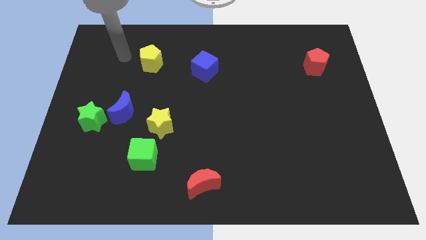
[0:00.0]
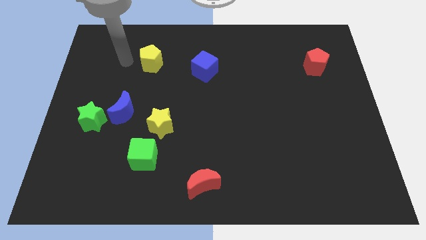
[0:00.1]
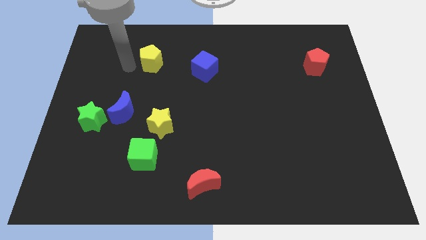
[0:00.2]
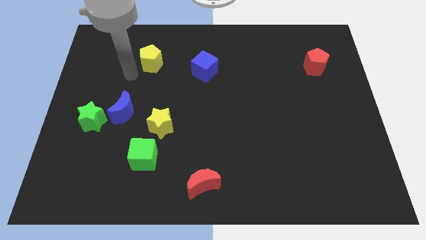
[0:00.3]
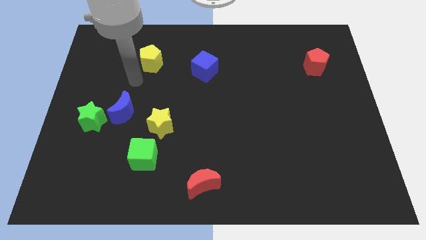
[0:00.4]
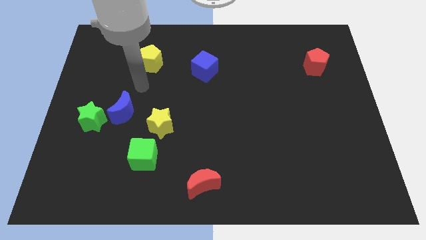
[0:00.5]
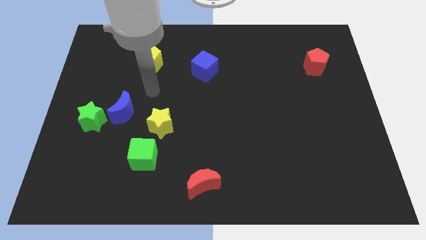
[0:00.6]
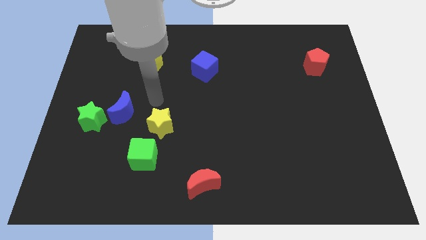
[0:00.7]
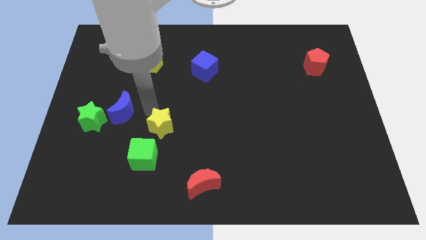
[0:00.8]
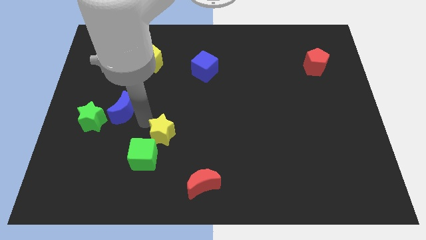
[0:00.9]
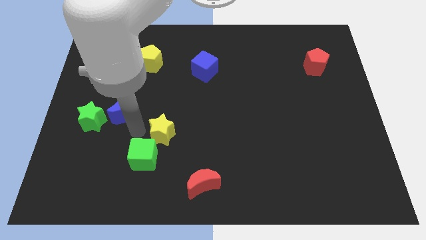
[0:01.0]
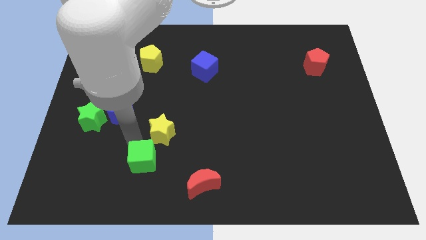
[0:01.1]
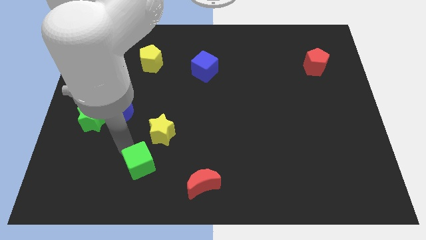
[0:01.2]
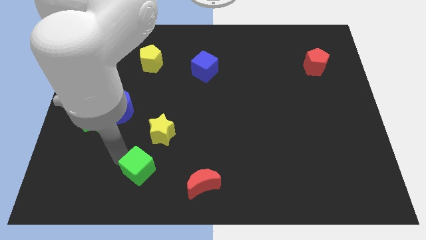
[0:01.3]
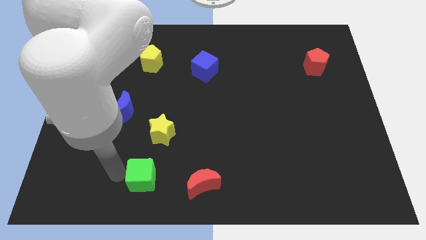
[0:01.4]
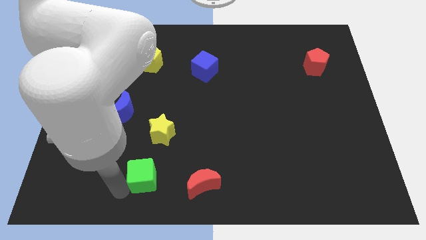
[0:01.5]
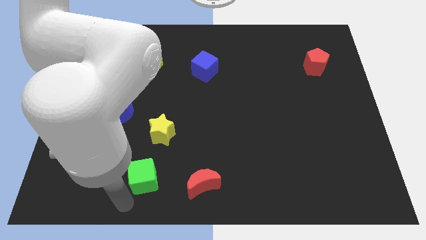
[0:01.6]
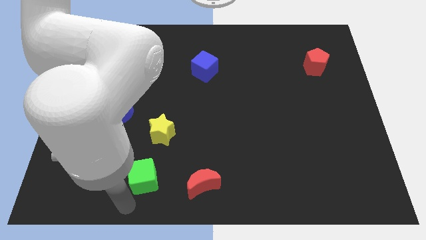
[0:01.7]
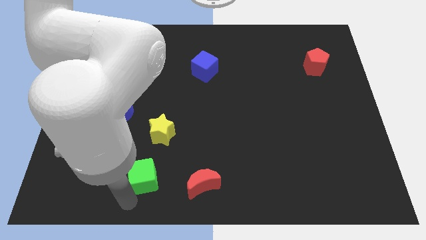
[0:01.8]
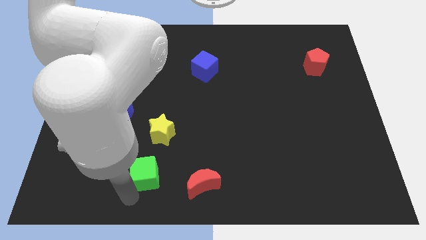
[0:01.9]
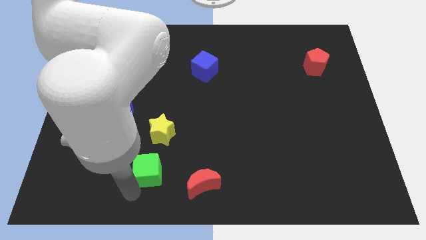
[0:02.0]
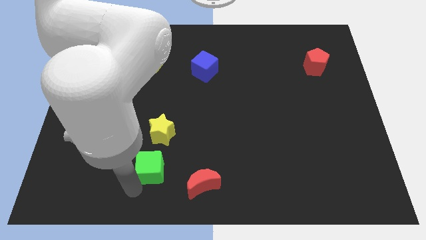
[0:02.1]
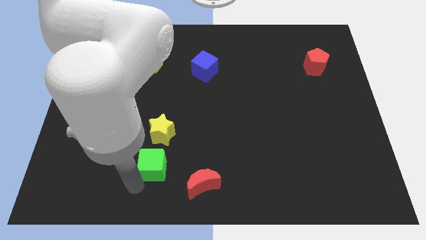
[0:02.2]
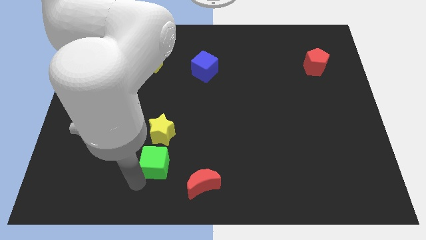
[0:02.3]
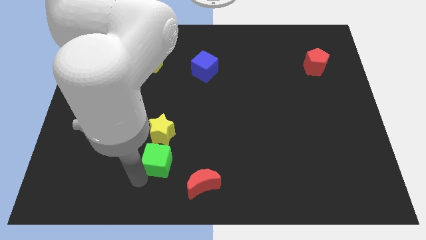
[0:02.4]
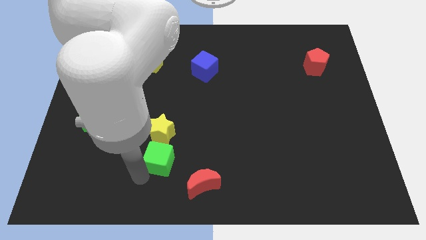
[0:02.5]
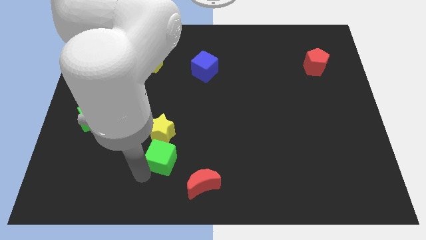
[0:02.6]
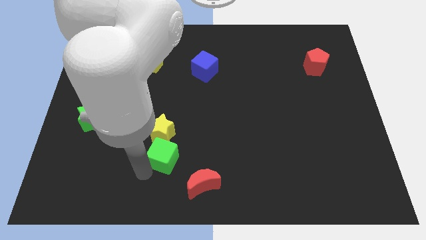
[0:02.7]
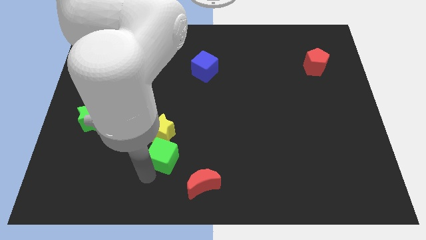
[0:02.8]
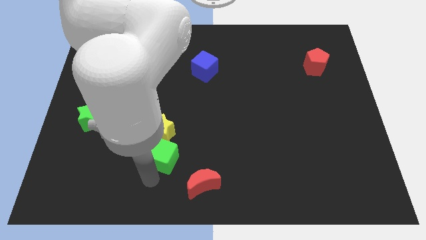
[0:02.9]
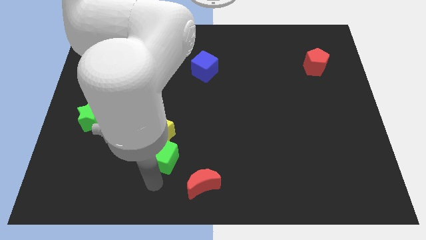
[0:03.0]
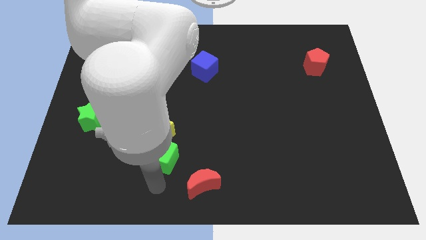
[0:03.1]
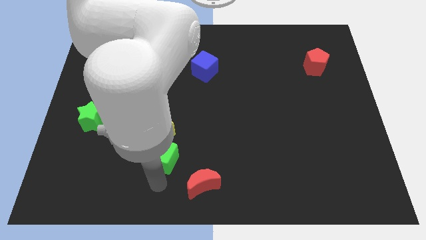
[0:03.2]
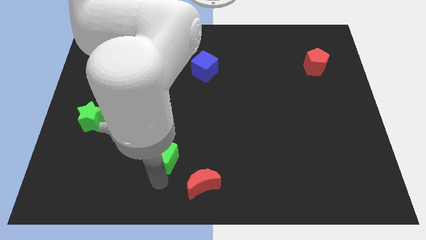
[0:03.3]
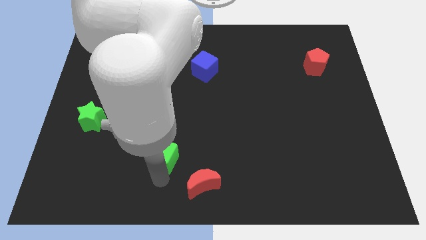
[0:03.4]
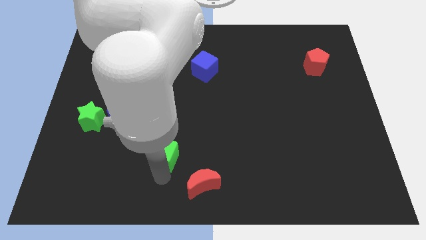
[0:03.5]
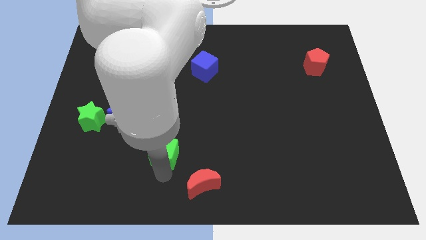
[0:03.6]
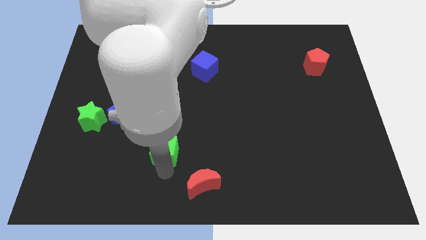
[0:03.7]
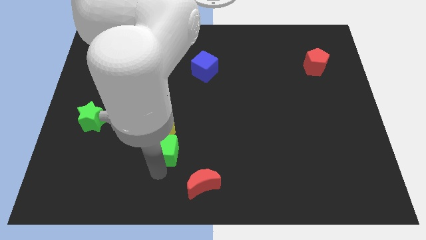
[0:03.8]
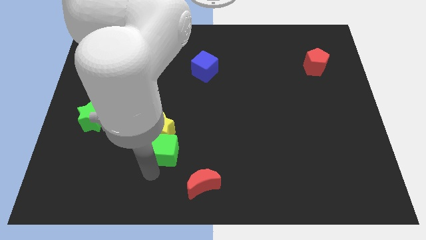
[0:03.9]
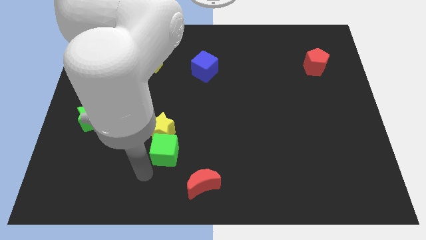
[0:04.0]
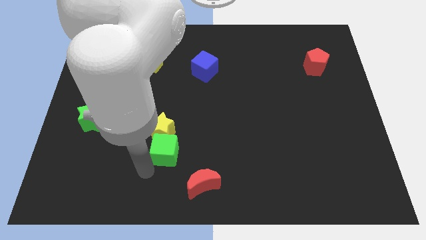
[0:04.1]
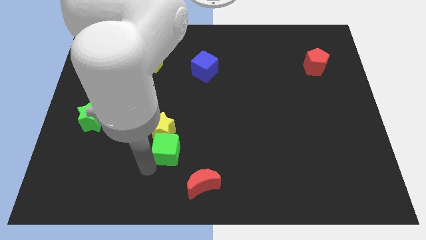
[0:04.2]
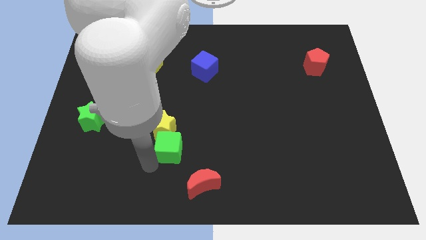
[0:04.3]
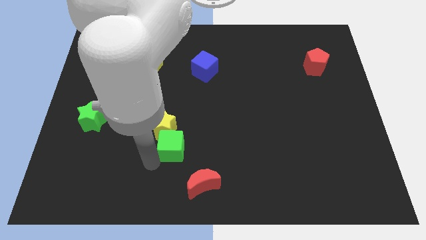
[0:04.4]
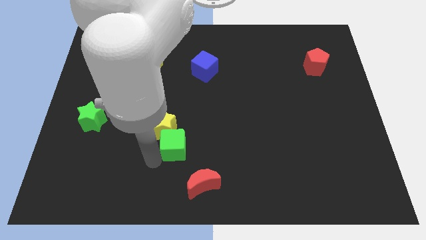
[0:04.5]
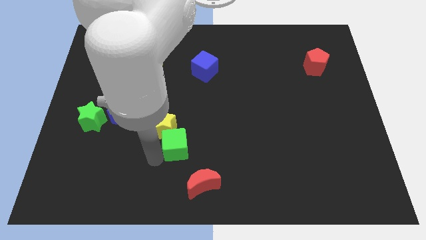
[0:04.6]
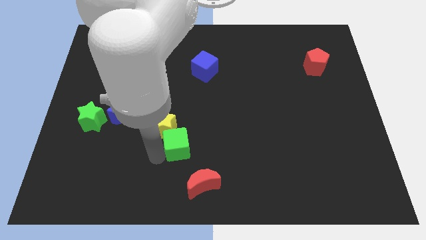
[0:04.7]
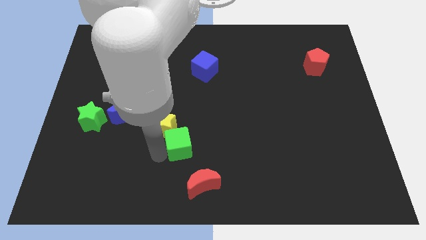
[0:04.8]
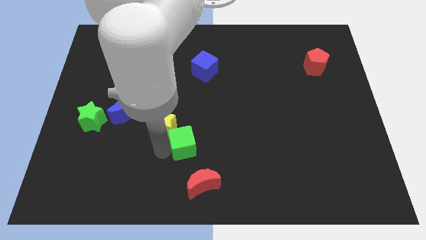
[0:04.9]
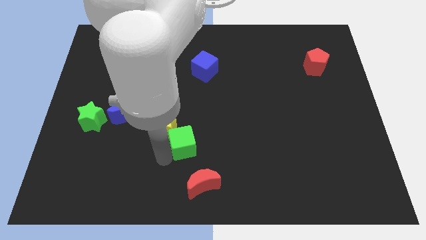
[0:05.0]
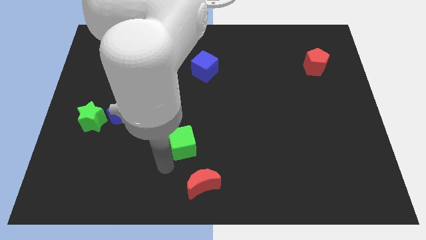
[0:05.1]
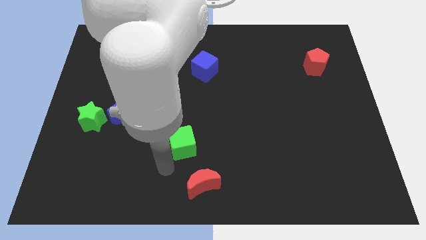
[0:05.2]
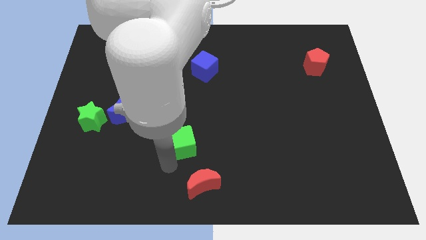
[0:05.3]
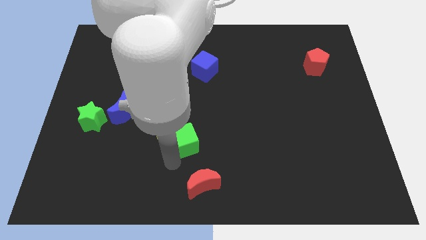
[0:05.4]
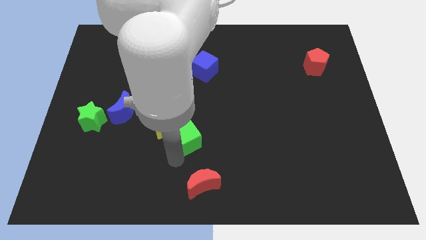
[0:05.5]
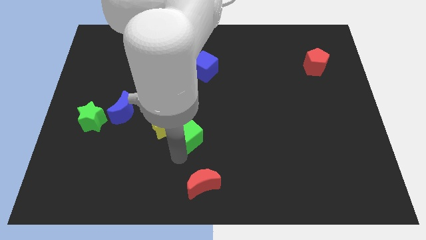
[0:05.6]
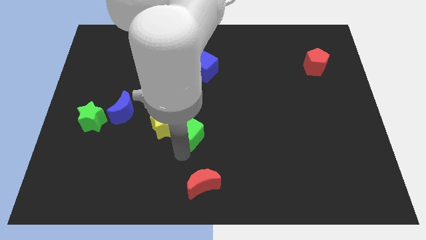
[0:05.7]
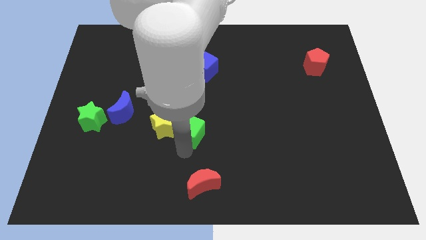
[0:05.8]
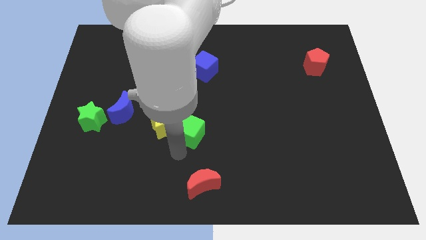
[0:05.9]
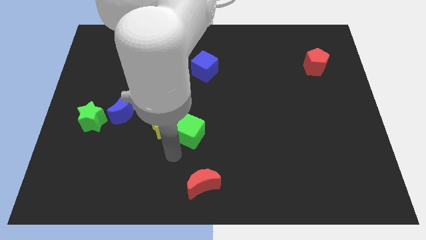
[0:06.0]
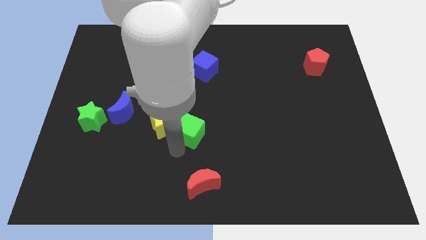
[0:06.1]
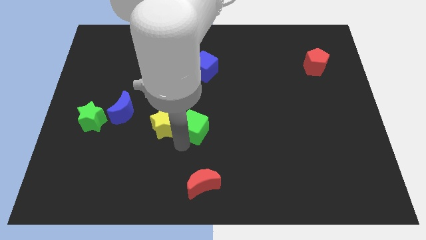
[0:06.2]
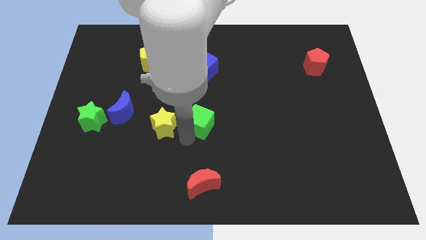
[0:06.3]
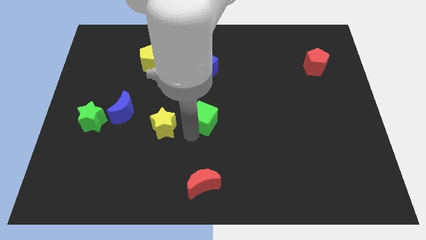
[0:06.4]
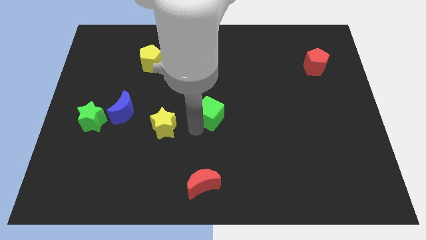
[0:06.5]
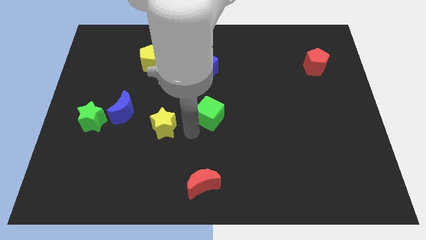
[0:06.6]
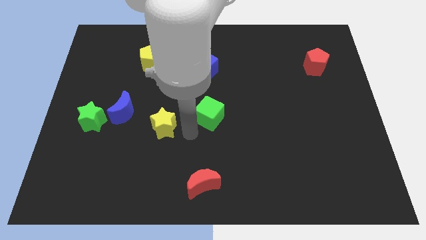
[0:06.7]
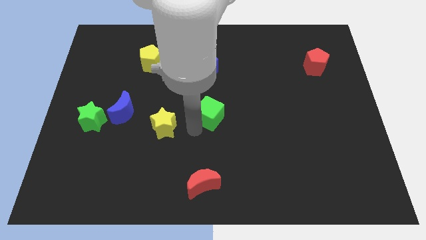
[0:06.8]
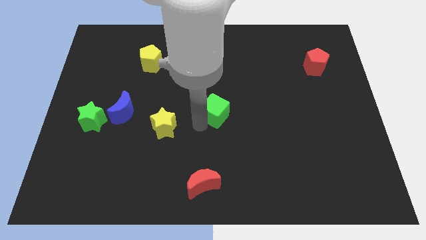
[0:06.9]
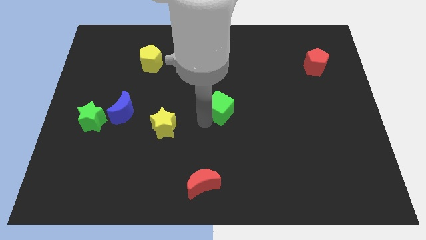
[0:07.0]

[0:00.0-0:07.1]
move the green cube up and then to the right

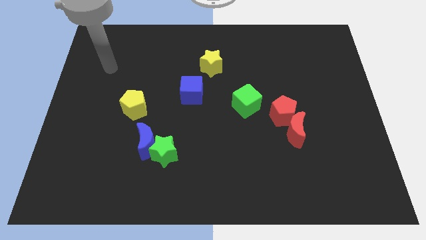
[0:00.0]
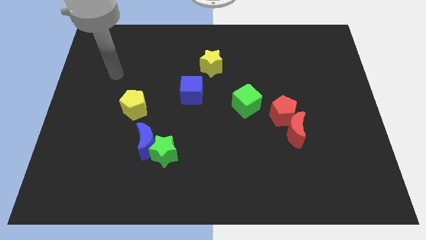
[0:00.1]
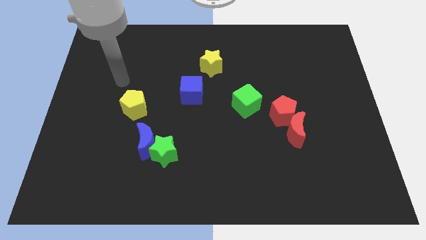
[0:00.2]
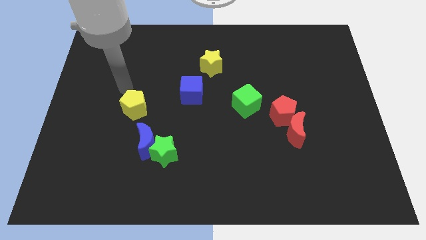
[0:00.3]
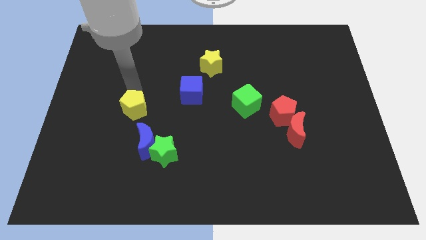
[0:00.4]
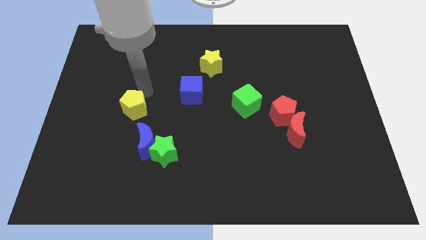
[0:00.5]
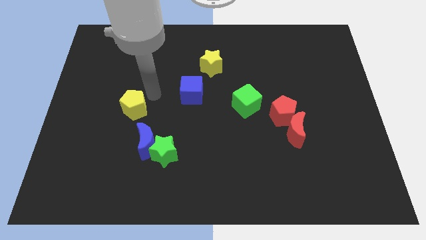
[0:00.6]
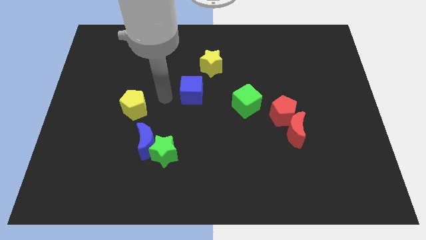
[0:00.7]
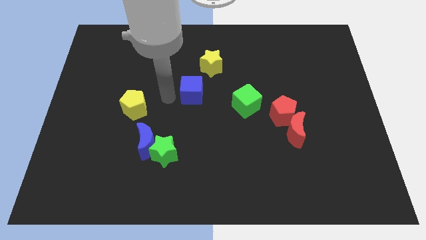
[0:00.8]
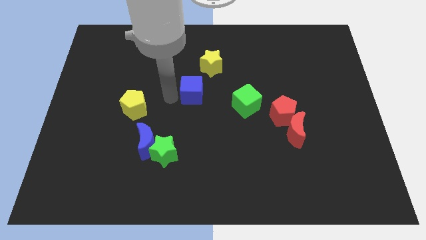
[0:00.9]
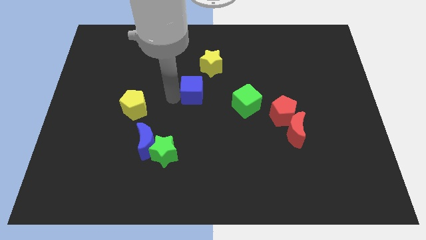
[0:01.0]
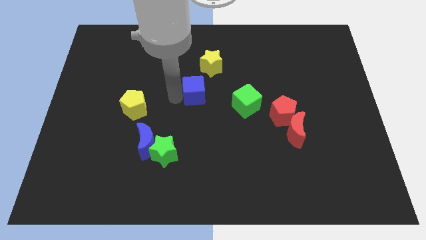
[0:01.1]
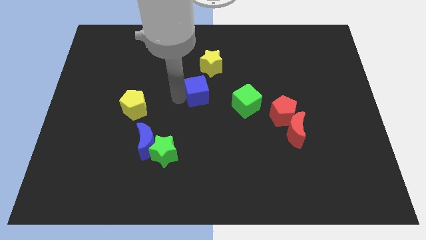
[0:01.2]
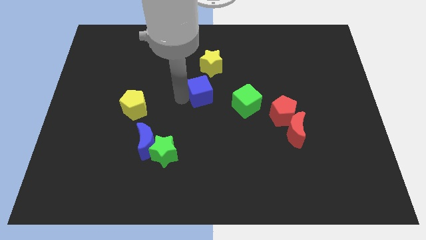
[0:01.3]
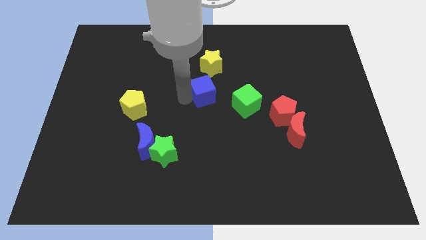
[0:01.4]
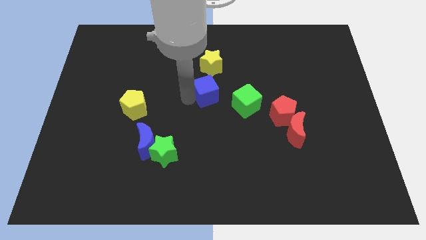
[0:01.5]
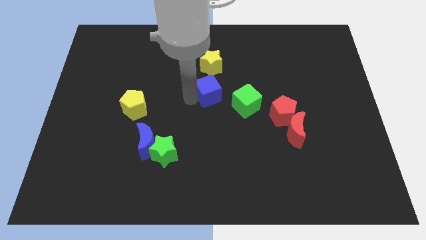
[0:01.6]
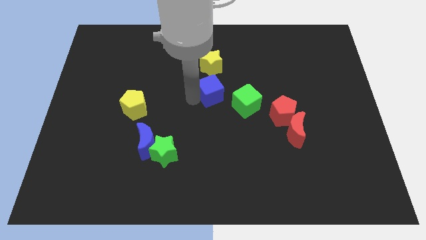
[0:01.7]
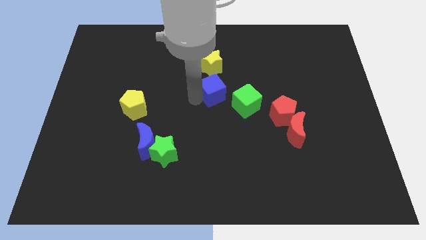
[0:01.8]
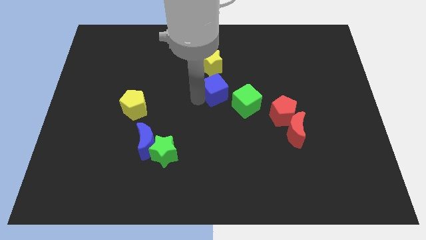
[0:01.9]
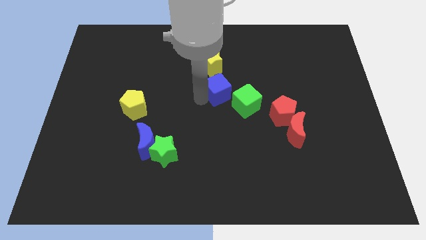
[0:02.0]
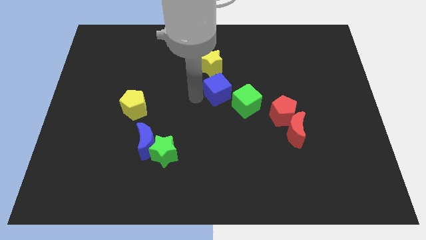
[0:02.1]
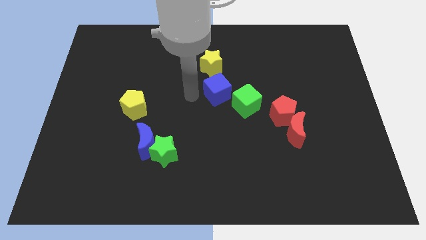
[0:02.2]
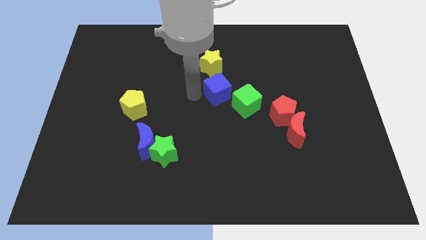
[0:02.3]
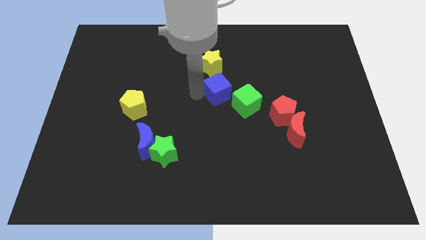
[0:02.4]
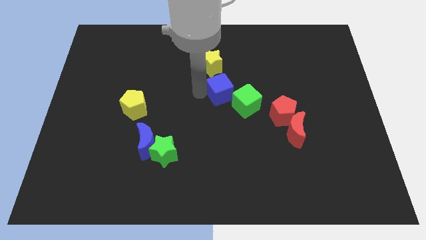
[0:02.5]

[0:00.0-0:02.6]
move the blue cube a little bit to the right
